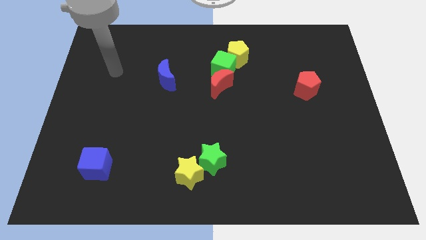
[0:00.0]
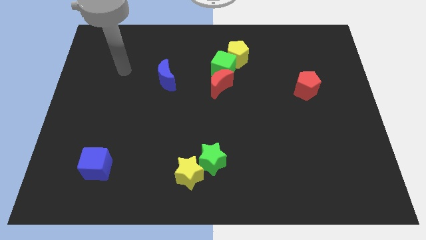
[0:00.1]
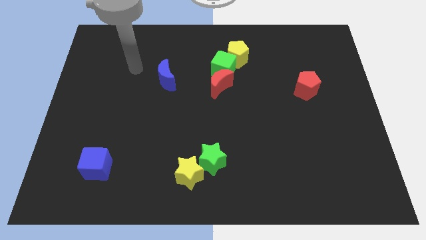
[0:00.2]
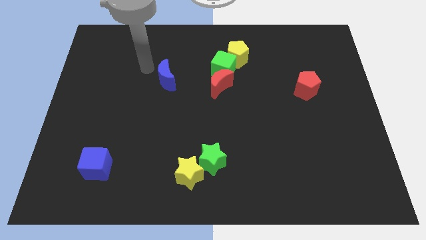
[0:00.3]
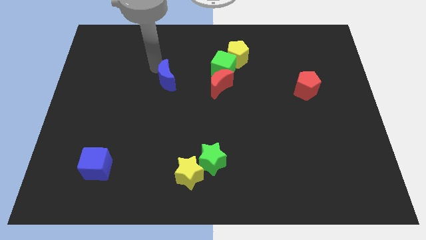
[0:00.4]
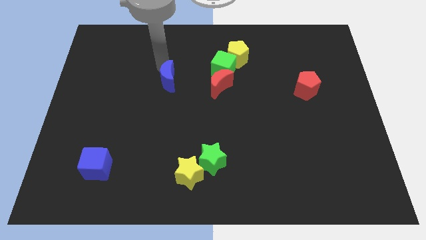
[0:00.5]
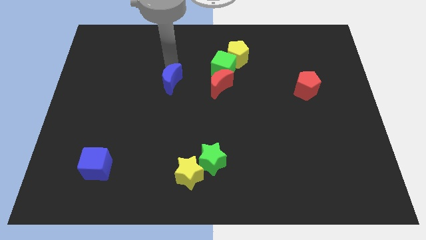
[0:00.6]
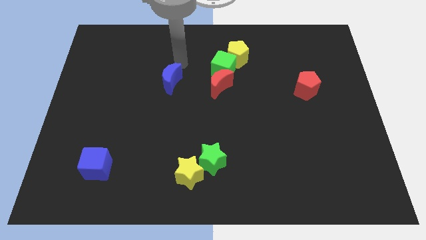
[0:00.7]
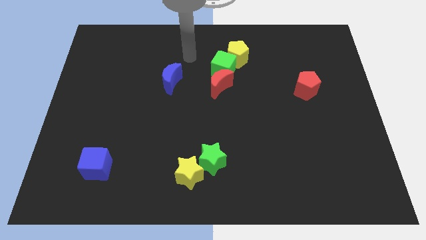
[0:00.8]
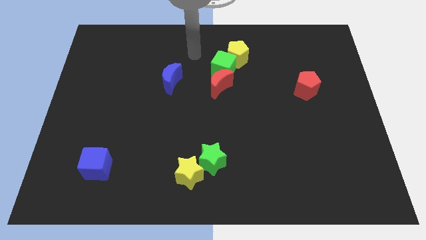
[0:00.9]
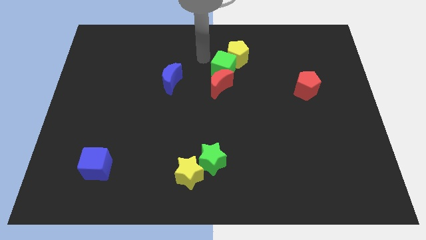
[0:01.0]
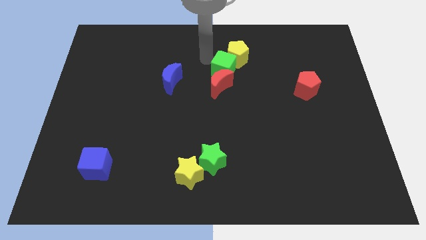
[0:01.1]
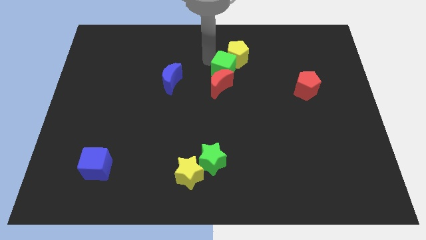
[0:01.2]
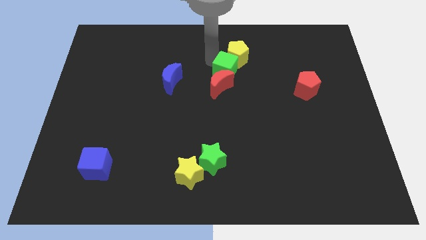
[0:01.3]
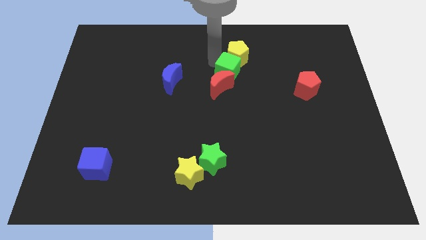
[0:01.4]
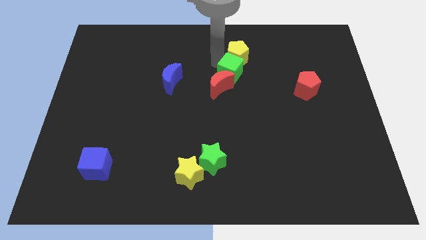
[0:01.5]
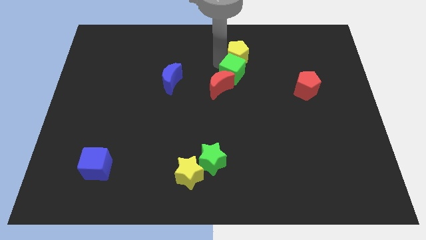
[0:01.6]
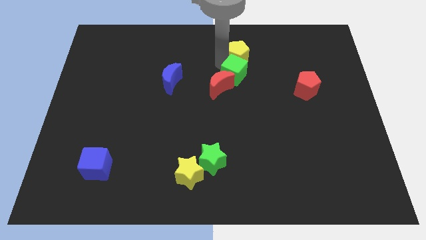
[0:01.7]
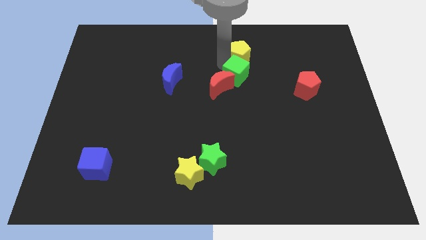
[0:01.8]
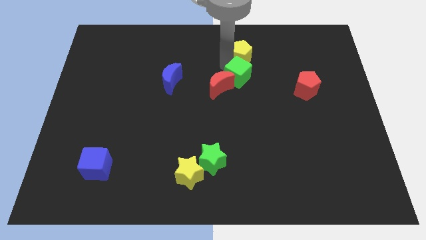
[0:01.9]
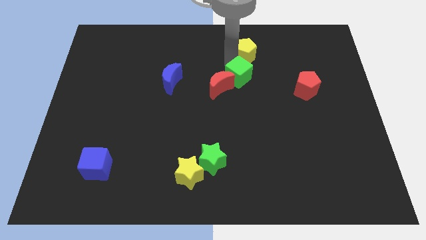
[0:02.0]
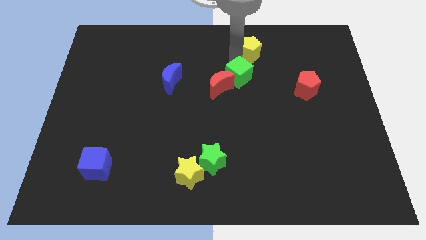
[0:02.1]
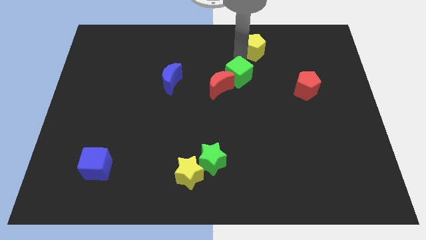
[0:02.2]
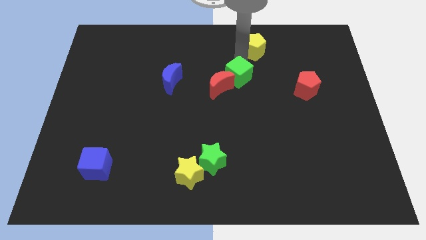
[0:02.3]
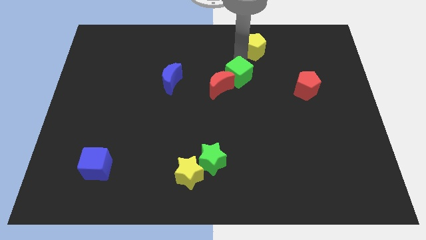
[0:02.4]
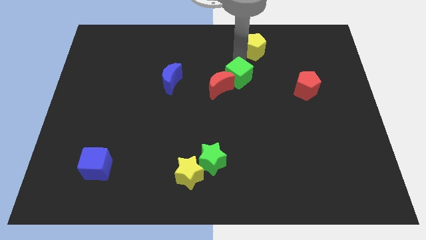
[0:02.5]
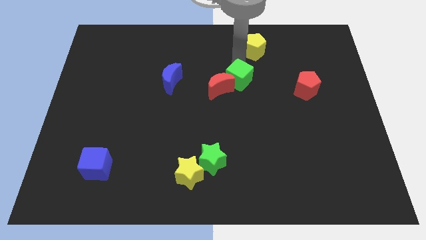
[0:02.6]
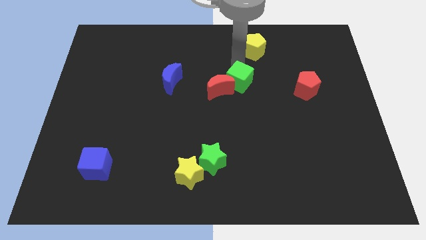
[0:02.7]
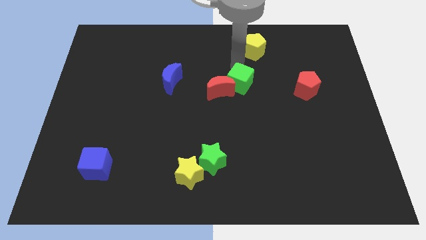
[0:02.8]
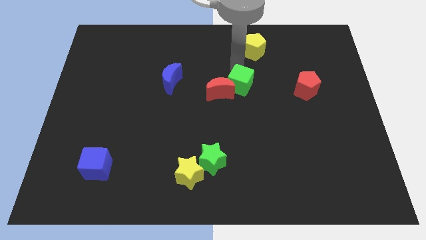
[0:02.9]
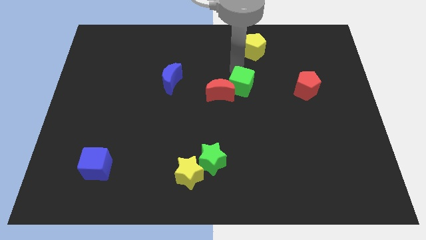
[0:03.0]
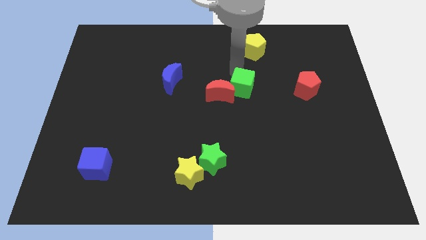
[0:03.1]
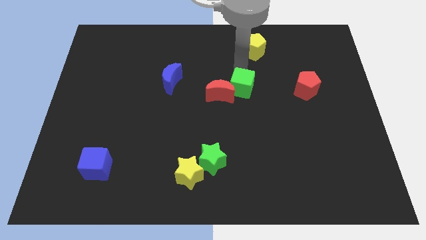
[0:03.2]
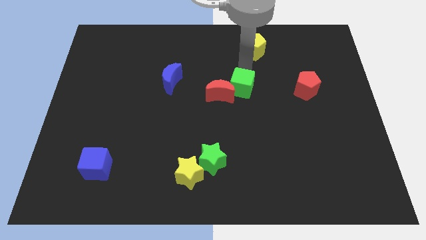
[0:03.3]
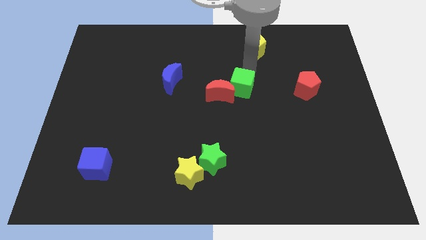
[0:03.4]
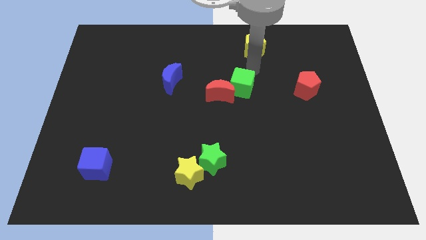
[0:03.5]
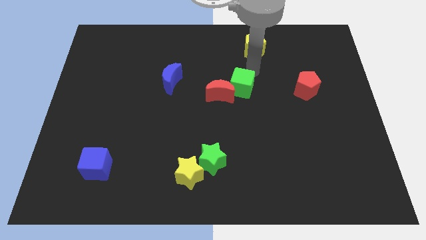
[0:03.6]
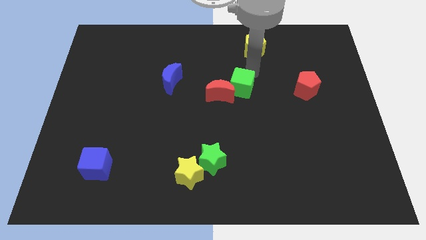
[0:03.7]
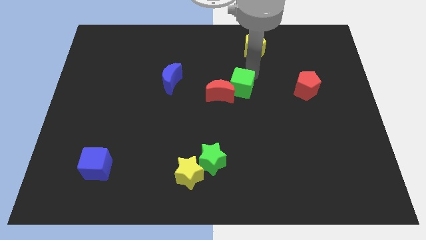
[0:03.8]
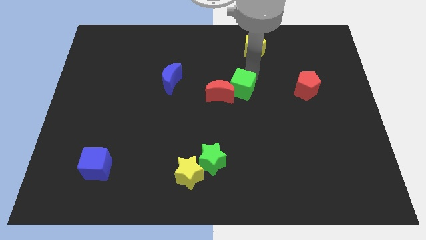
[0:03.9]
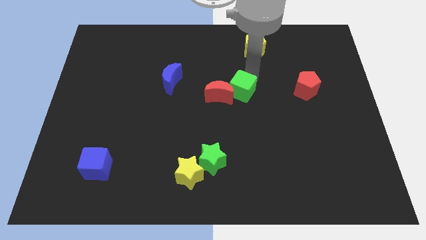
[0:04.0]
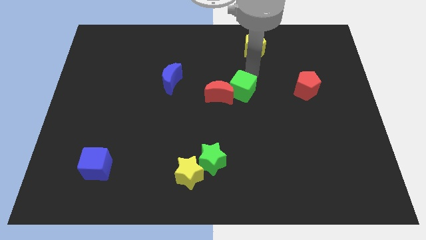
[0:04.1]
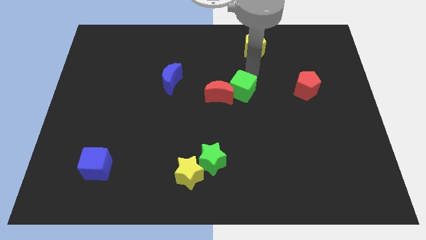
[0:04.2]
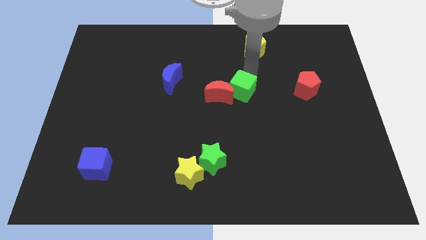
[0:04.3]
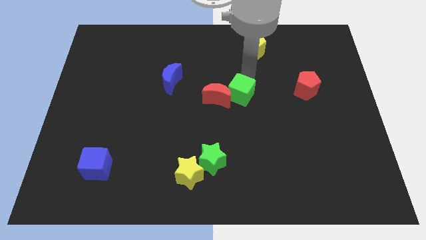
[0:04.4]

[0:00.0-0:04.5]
slide the green cube a little downwards

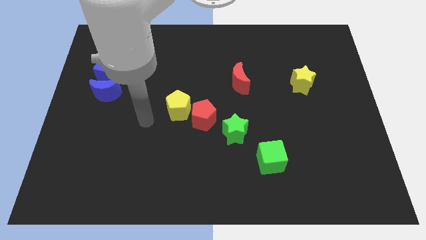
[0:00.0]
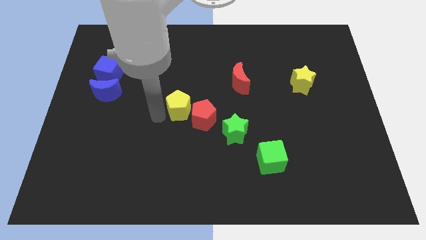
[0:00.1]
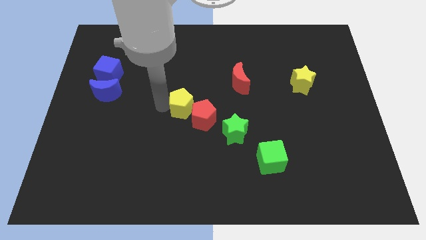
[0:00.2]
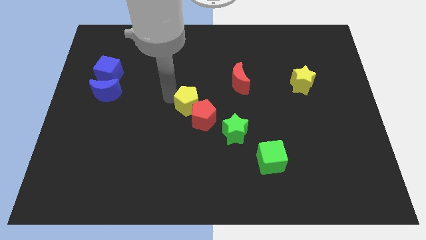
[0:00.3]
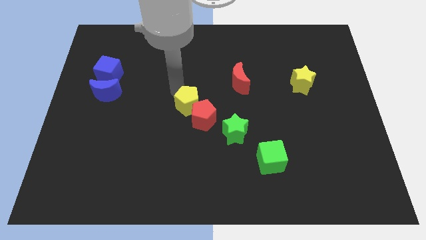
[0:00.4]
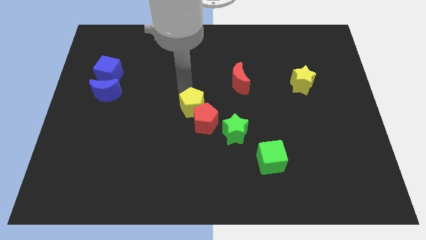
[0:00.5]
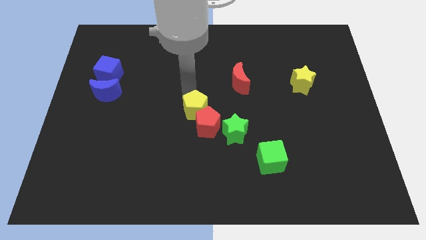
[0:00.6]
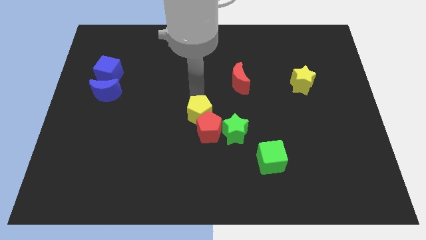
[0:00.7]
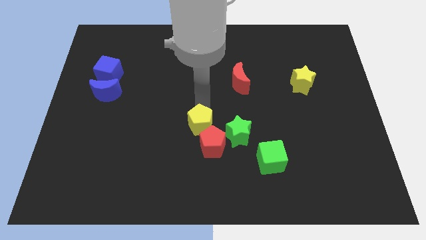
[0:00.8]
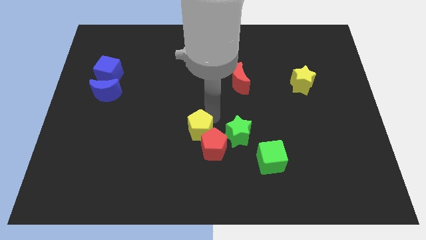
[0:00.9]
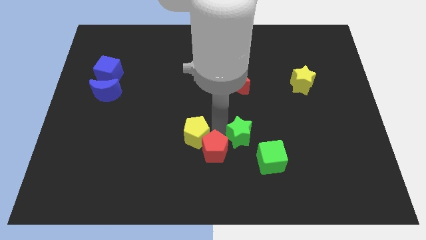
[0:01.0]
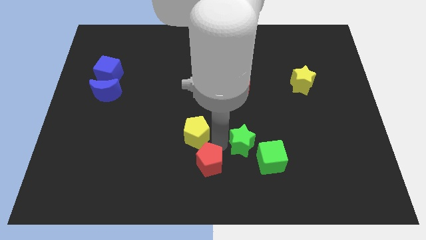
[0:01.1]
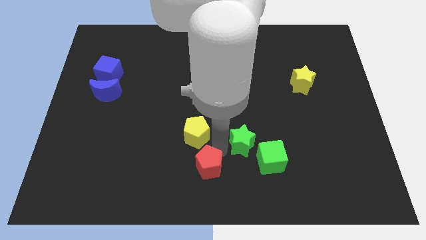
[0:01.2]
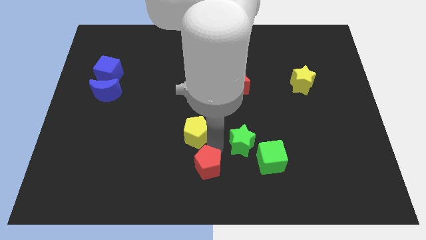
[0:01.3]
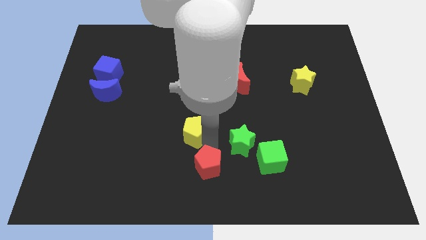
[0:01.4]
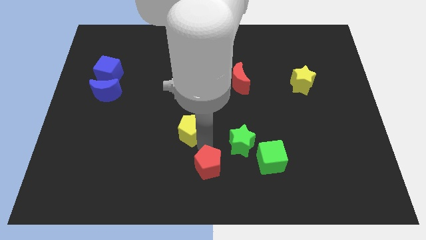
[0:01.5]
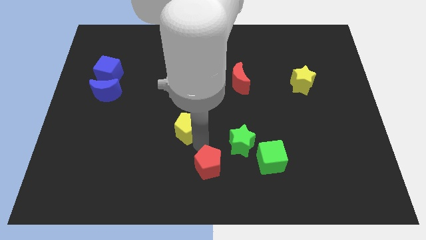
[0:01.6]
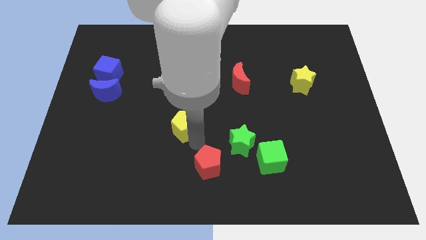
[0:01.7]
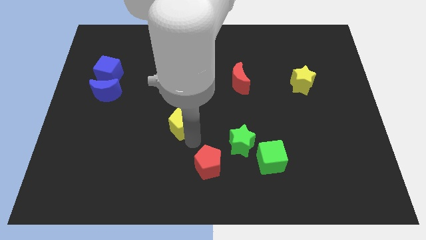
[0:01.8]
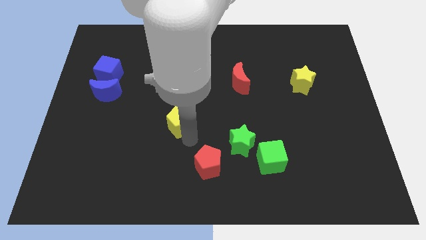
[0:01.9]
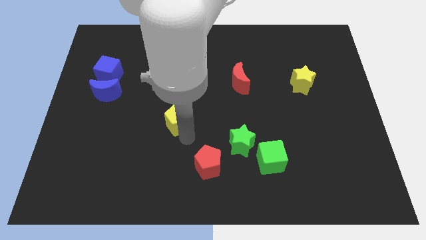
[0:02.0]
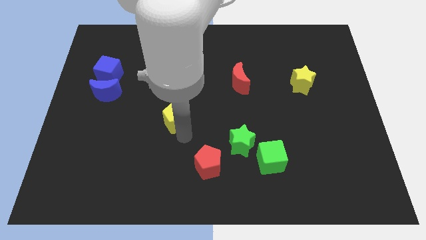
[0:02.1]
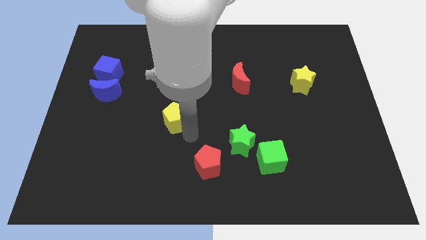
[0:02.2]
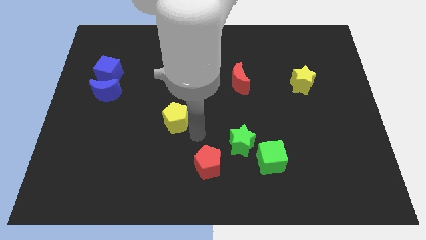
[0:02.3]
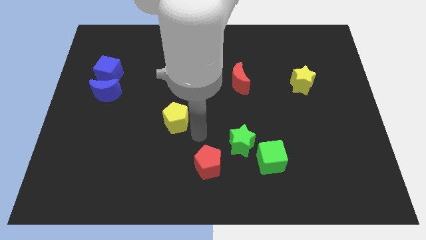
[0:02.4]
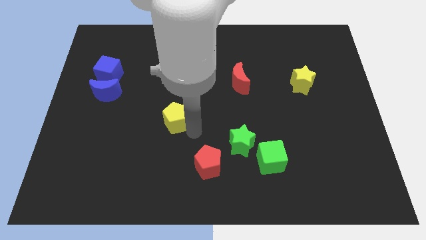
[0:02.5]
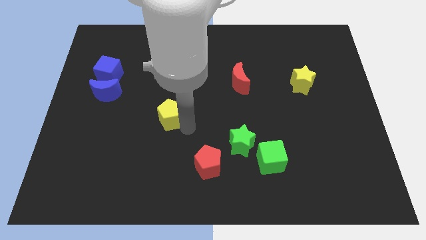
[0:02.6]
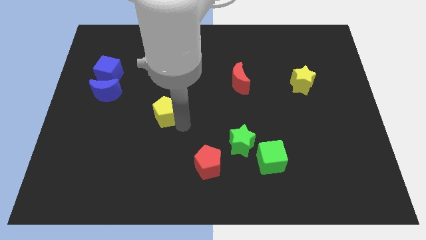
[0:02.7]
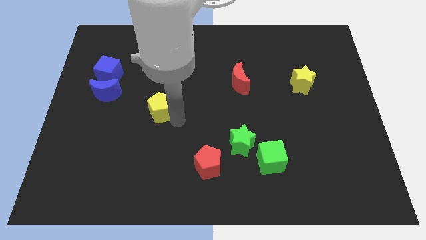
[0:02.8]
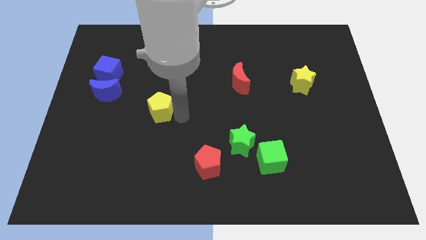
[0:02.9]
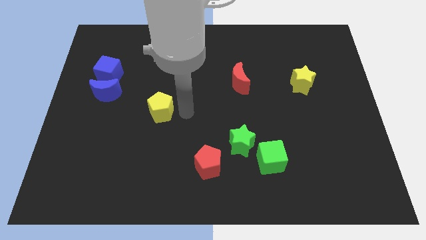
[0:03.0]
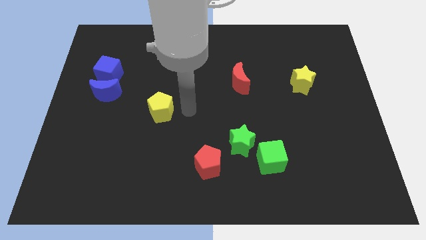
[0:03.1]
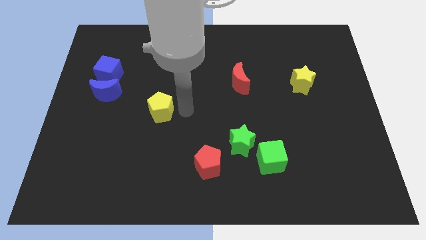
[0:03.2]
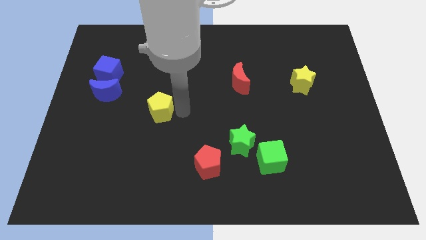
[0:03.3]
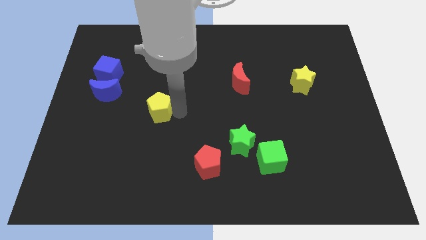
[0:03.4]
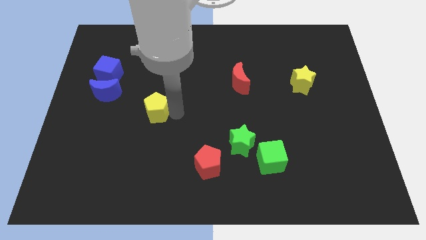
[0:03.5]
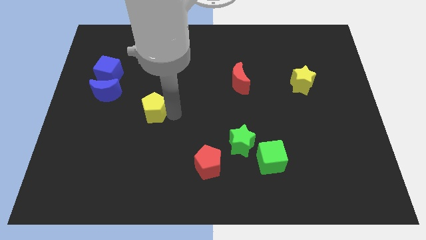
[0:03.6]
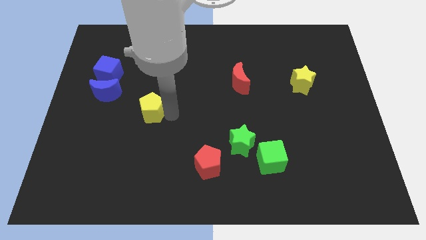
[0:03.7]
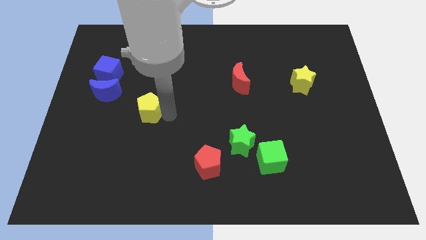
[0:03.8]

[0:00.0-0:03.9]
push the yellow pentagon a little to the left
